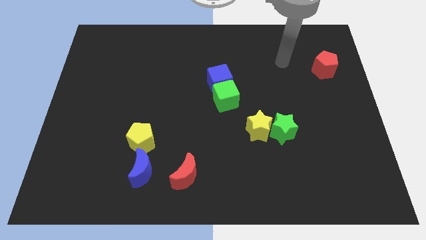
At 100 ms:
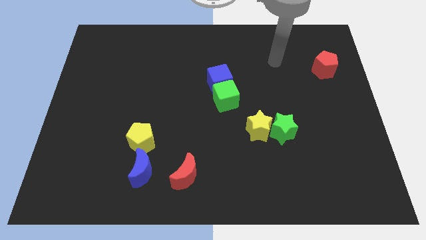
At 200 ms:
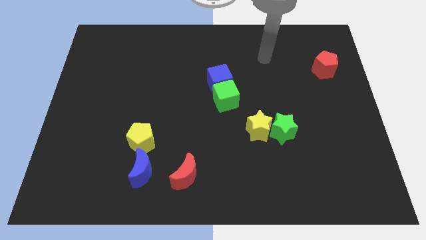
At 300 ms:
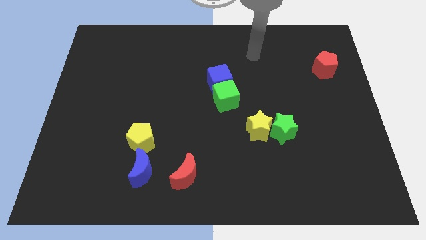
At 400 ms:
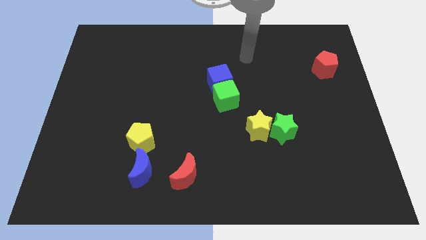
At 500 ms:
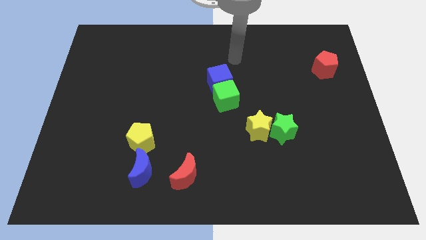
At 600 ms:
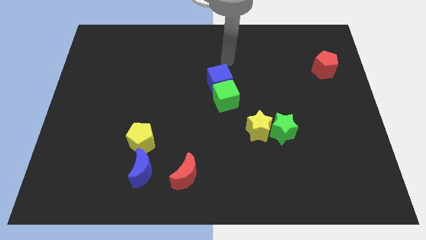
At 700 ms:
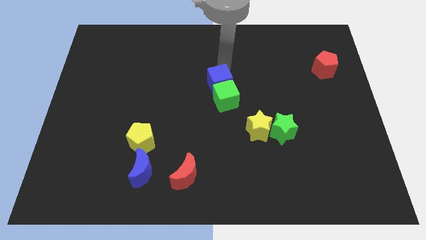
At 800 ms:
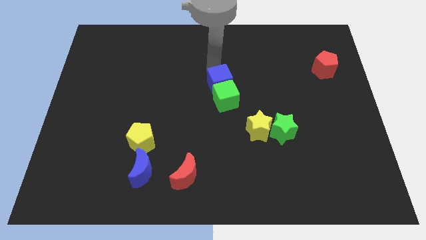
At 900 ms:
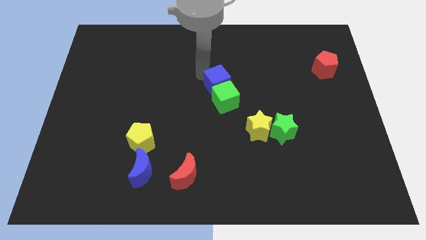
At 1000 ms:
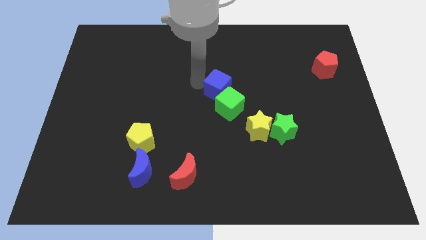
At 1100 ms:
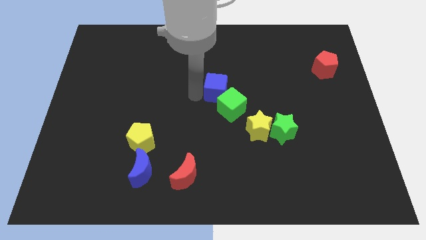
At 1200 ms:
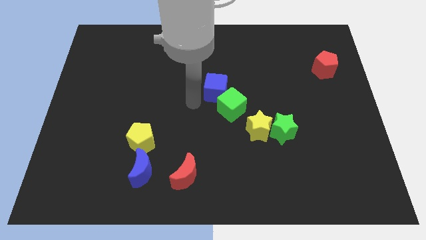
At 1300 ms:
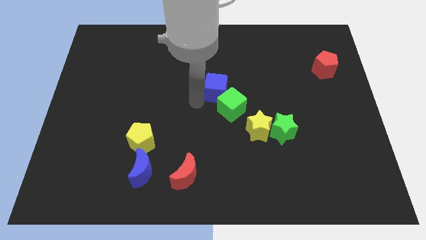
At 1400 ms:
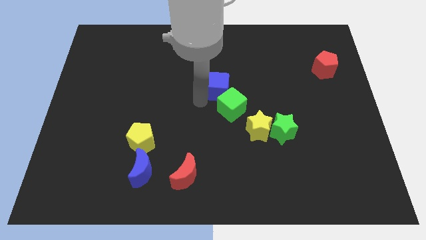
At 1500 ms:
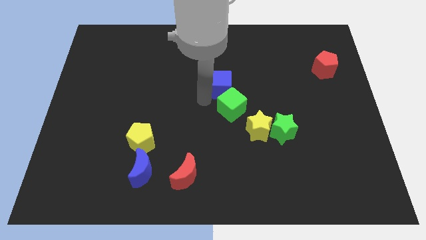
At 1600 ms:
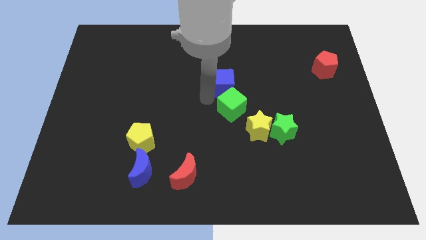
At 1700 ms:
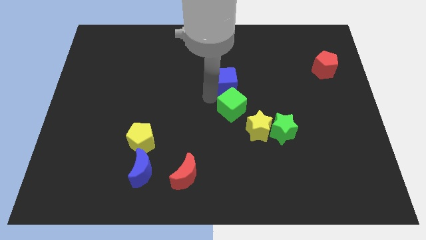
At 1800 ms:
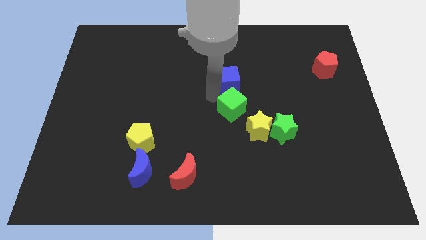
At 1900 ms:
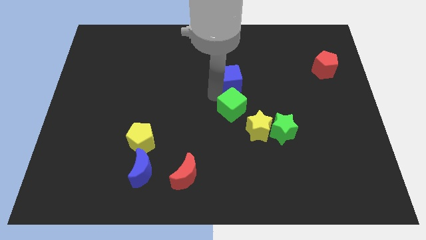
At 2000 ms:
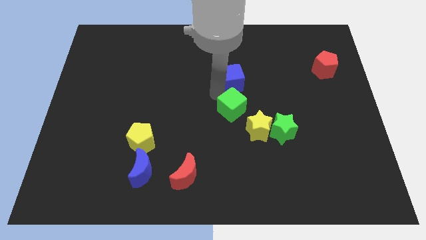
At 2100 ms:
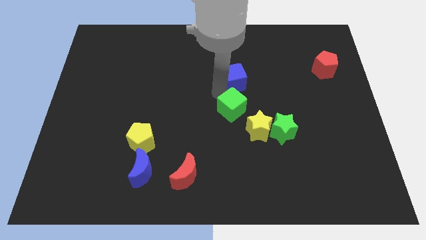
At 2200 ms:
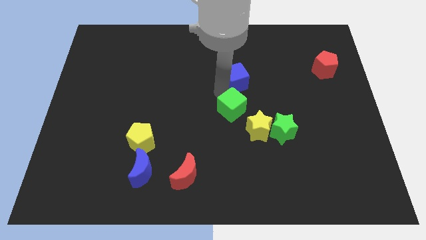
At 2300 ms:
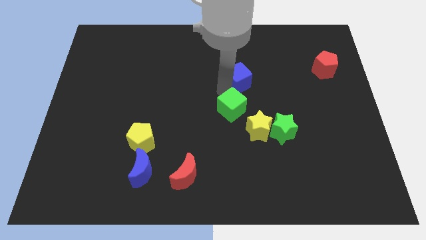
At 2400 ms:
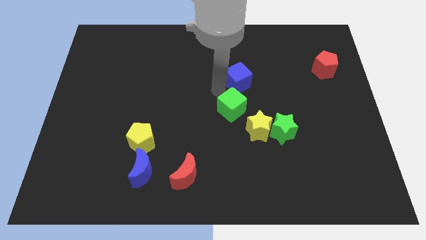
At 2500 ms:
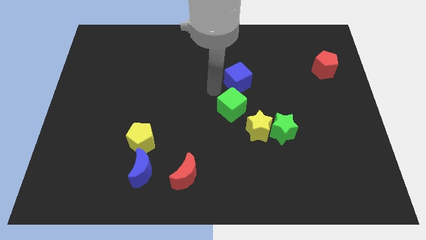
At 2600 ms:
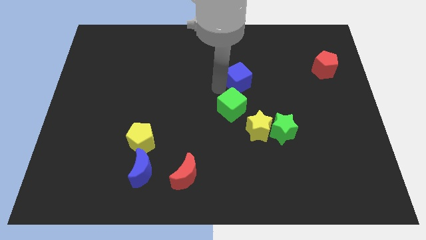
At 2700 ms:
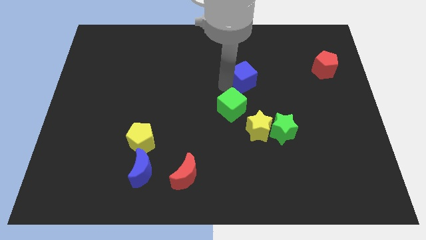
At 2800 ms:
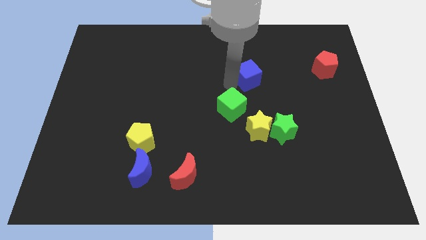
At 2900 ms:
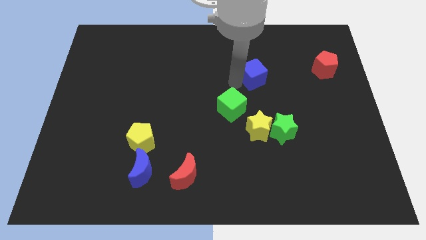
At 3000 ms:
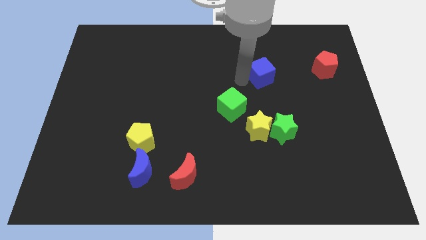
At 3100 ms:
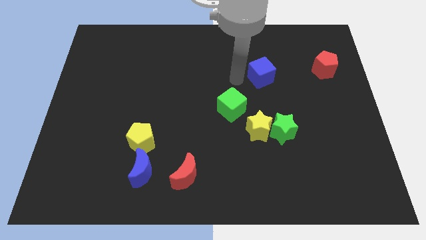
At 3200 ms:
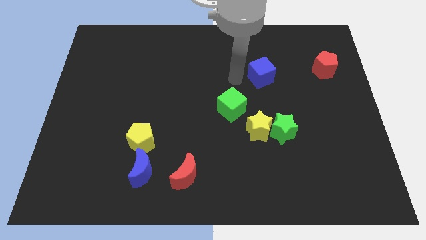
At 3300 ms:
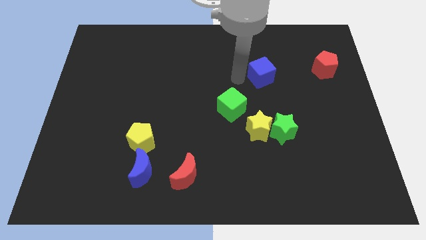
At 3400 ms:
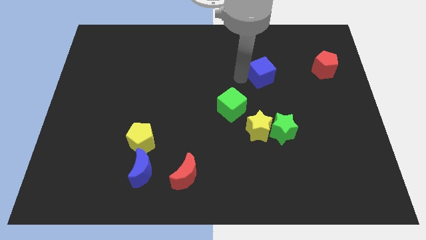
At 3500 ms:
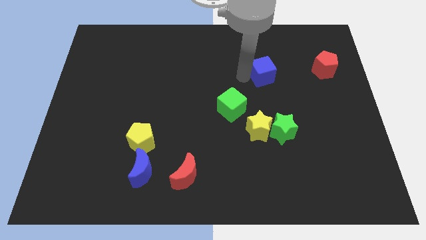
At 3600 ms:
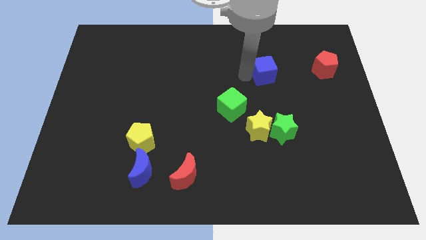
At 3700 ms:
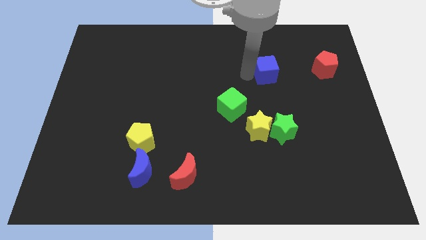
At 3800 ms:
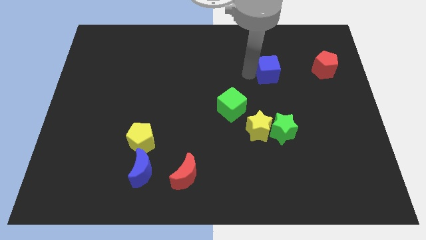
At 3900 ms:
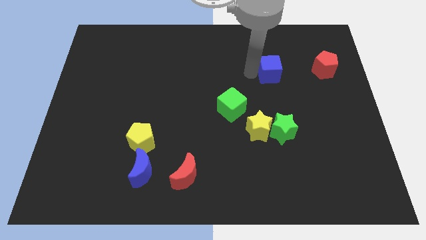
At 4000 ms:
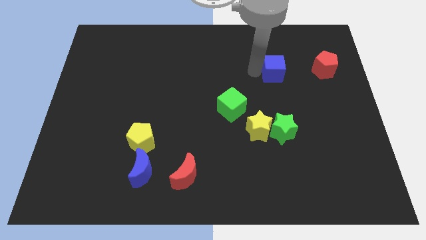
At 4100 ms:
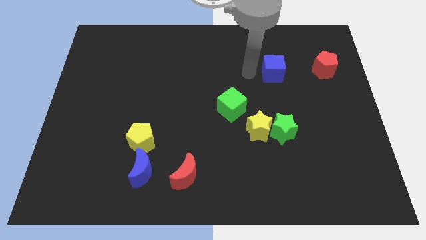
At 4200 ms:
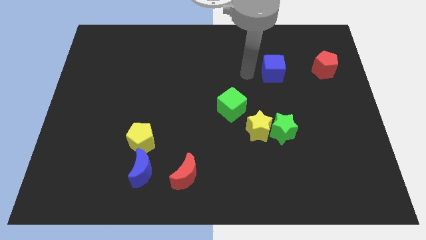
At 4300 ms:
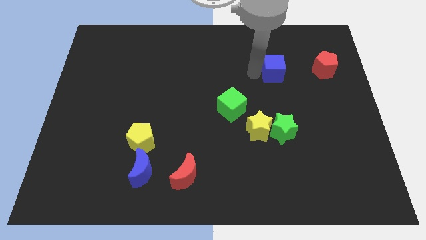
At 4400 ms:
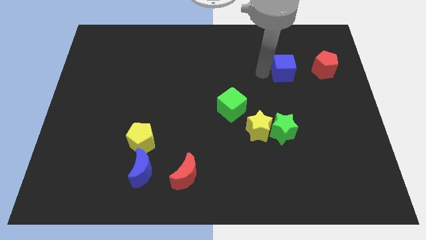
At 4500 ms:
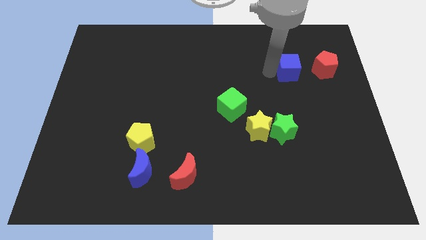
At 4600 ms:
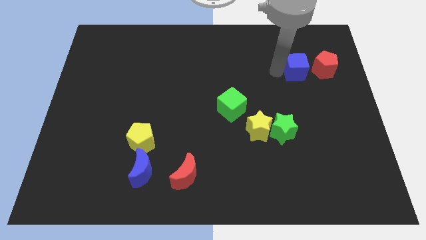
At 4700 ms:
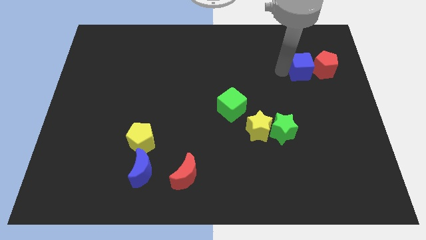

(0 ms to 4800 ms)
slide the blue cube towards the red pentagon

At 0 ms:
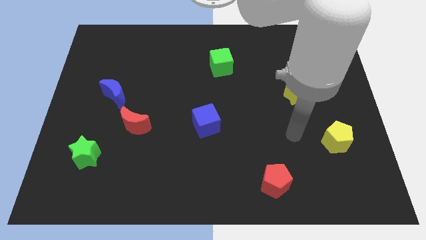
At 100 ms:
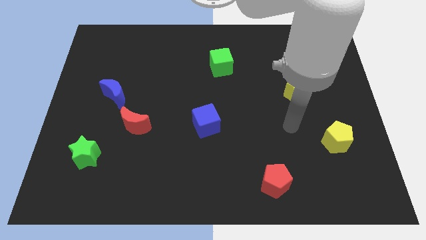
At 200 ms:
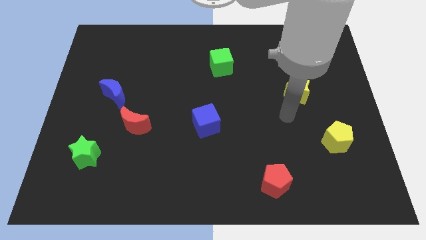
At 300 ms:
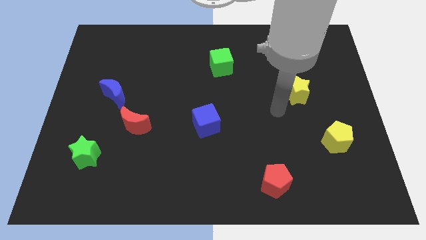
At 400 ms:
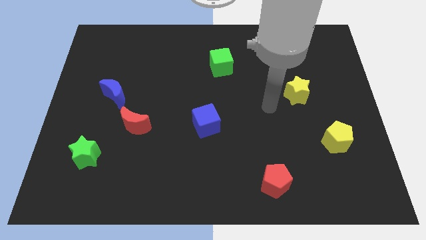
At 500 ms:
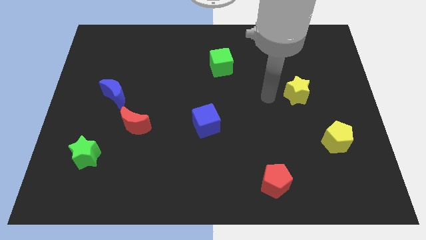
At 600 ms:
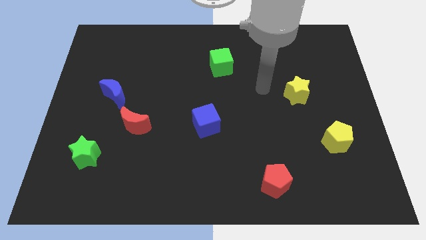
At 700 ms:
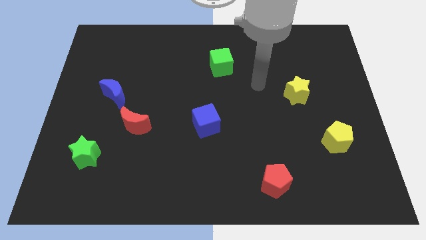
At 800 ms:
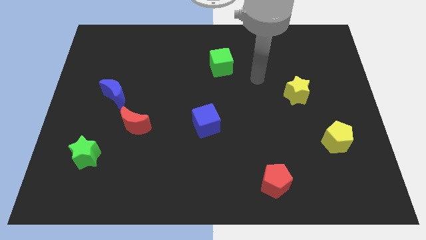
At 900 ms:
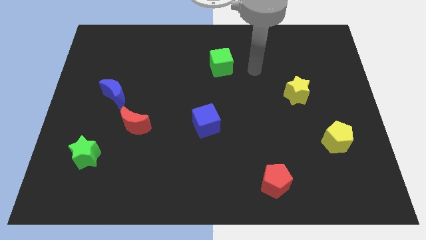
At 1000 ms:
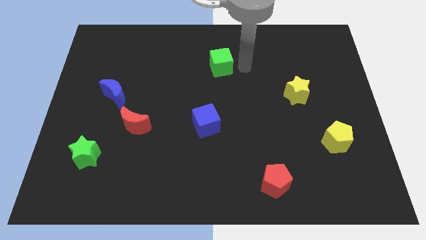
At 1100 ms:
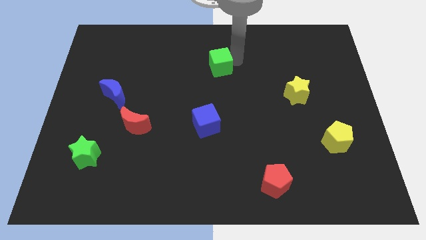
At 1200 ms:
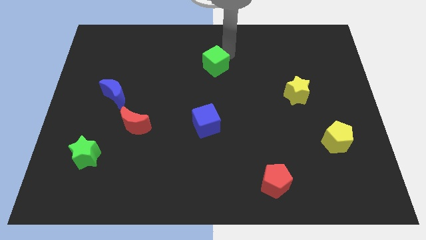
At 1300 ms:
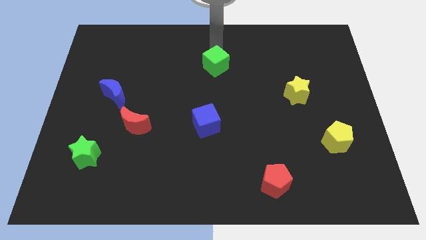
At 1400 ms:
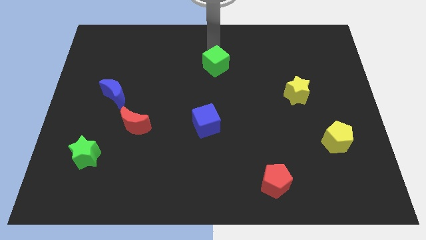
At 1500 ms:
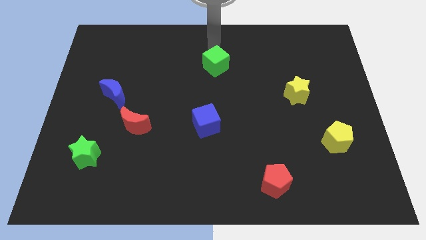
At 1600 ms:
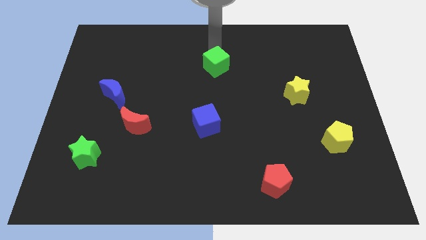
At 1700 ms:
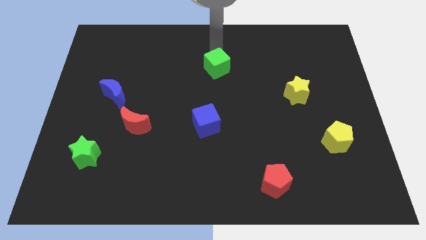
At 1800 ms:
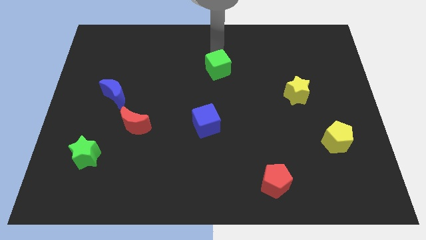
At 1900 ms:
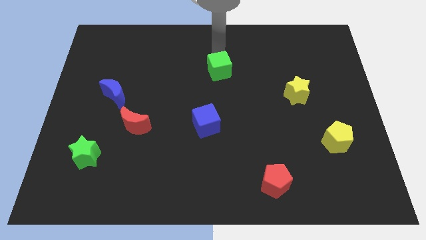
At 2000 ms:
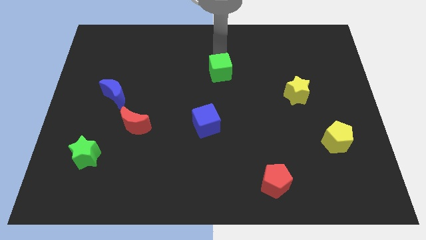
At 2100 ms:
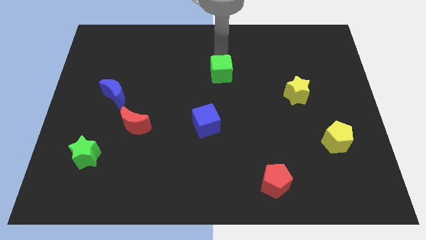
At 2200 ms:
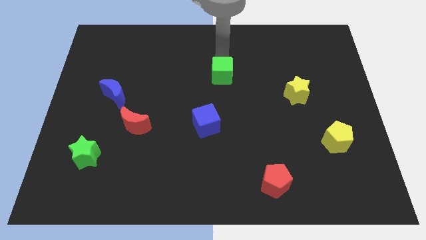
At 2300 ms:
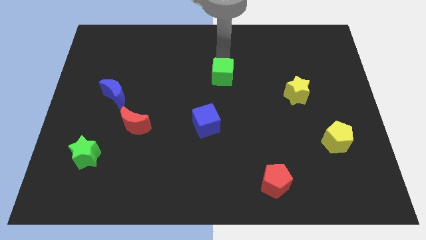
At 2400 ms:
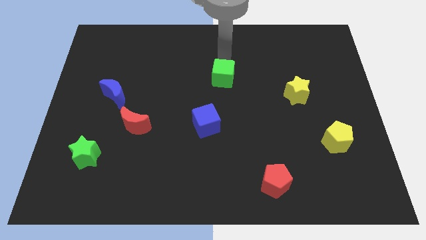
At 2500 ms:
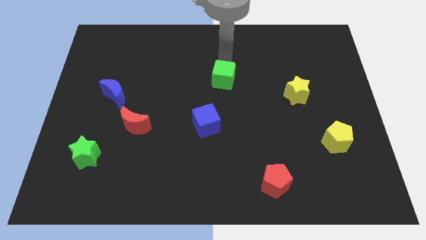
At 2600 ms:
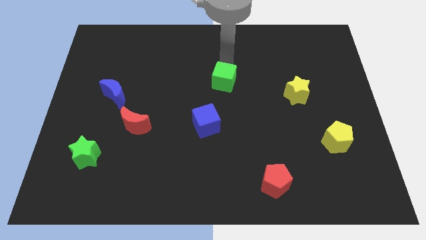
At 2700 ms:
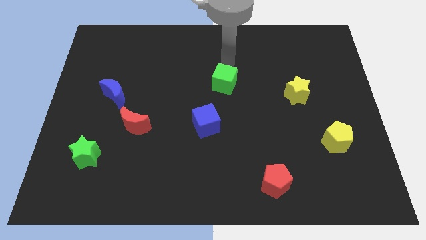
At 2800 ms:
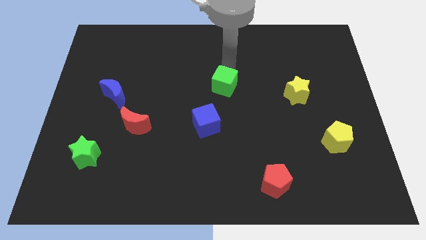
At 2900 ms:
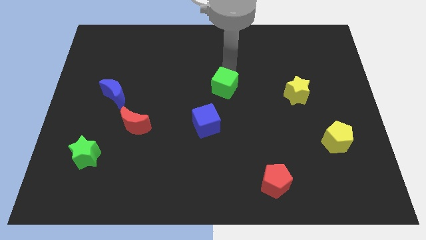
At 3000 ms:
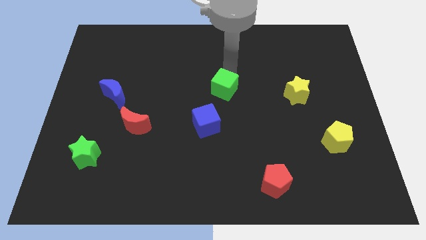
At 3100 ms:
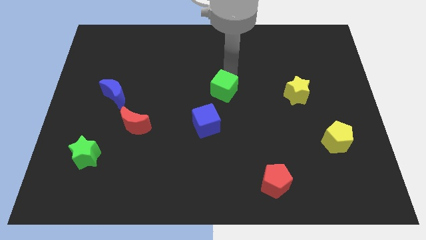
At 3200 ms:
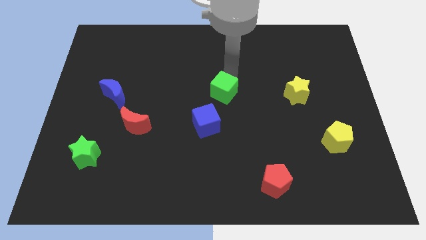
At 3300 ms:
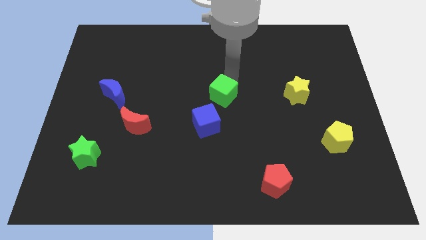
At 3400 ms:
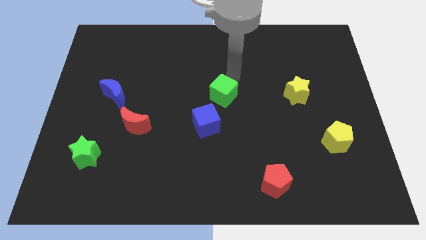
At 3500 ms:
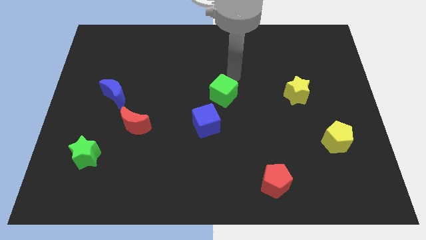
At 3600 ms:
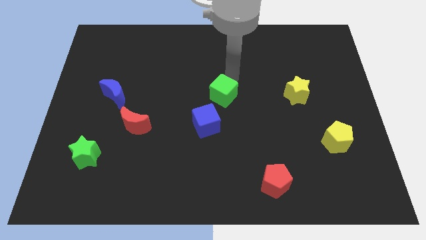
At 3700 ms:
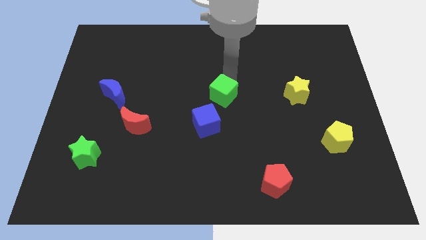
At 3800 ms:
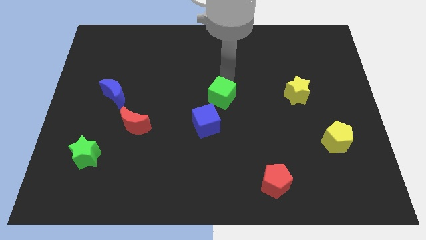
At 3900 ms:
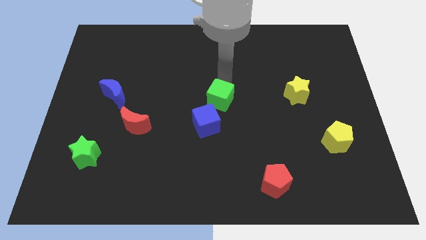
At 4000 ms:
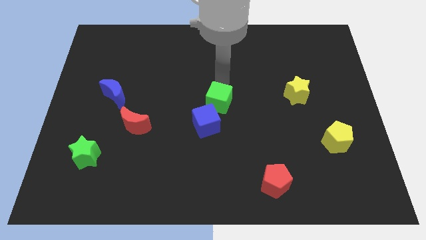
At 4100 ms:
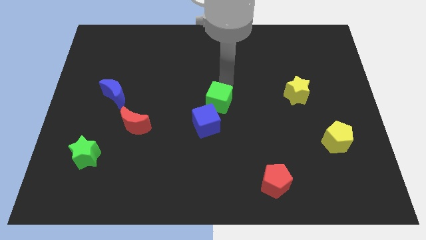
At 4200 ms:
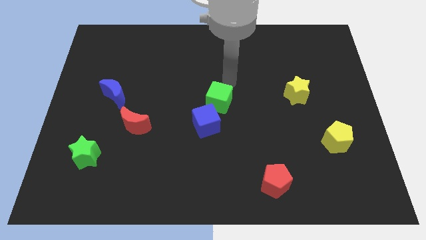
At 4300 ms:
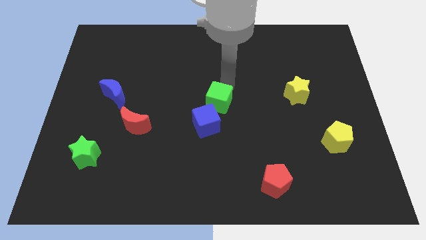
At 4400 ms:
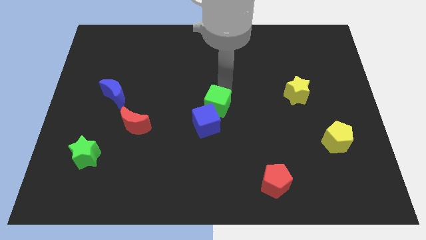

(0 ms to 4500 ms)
push the green cube close to the blue cube
